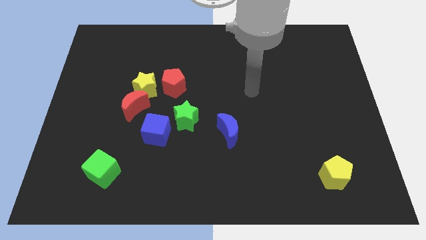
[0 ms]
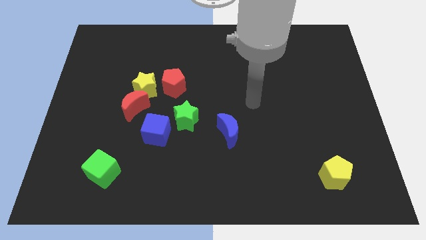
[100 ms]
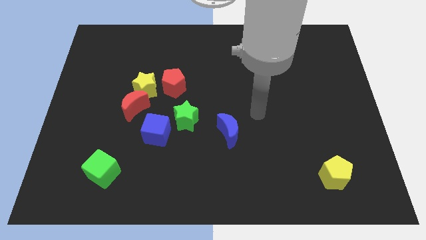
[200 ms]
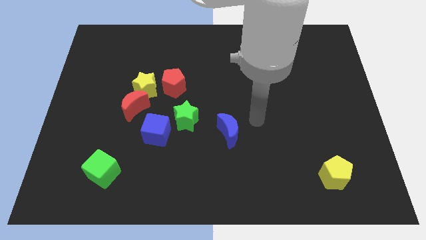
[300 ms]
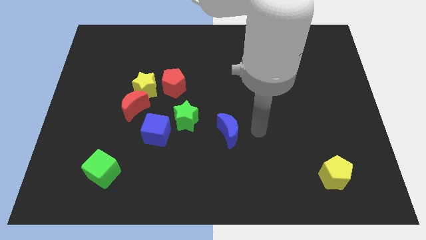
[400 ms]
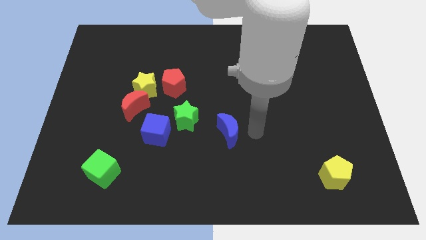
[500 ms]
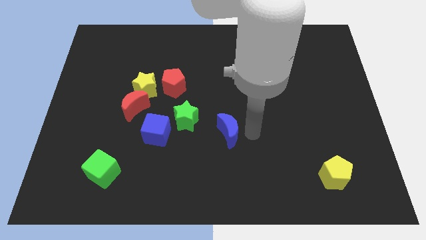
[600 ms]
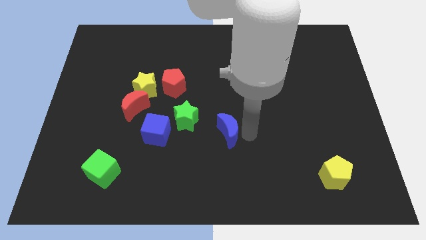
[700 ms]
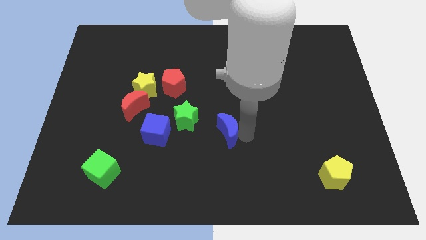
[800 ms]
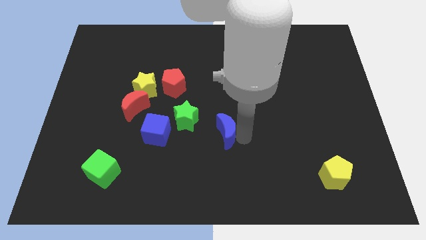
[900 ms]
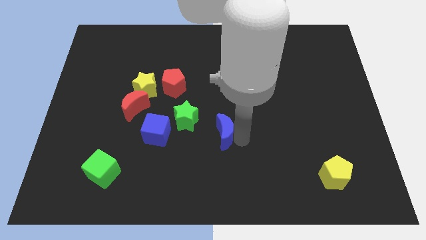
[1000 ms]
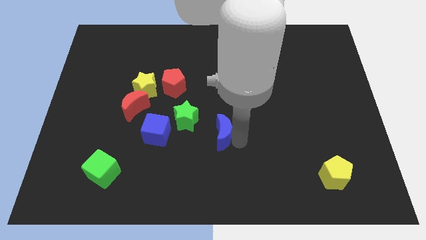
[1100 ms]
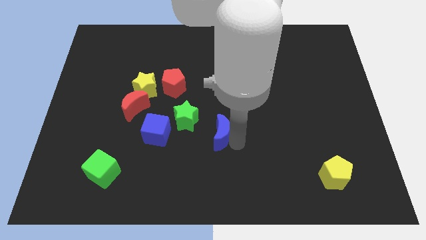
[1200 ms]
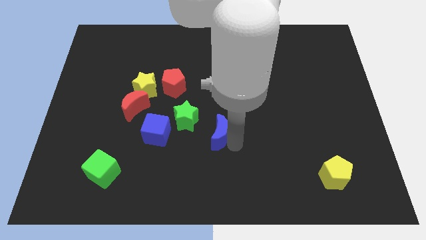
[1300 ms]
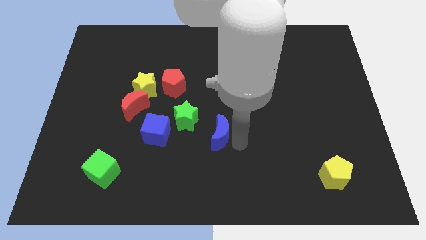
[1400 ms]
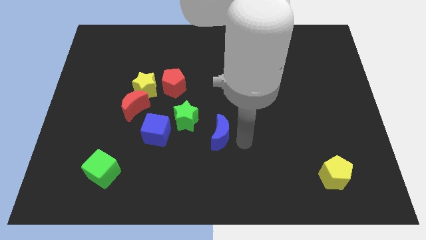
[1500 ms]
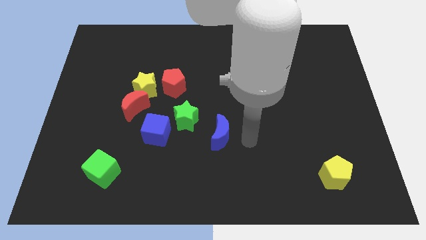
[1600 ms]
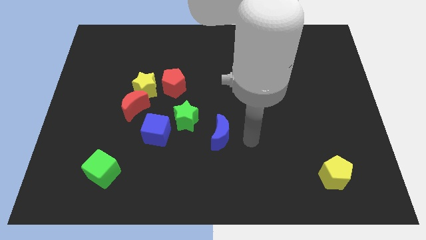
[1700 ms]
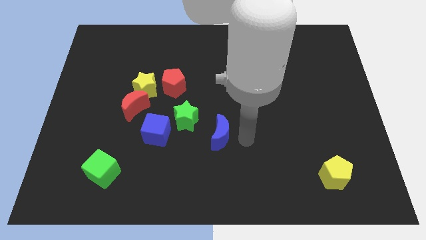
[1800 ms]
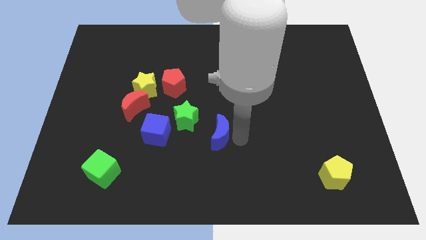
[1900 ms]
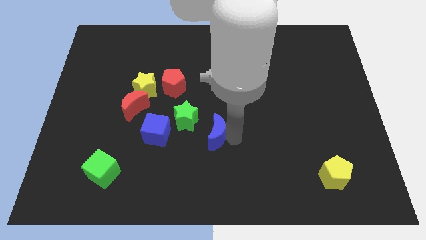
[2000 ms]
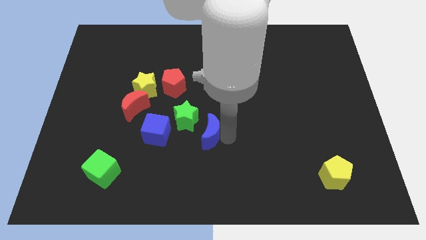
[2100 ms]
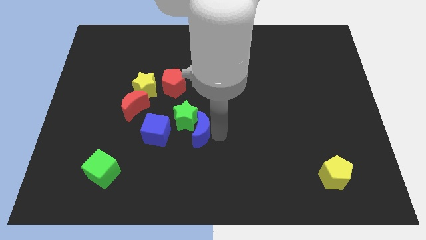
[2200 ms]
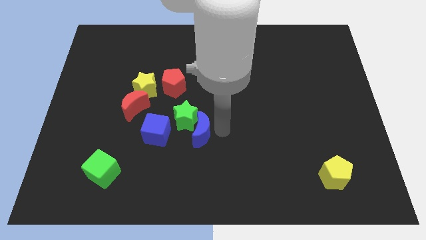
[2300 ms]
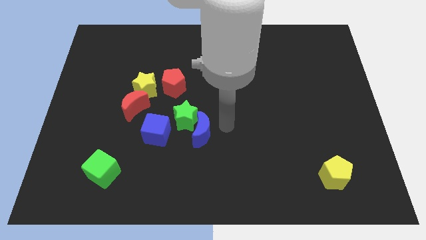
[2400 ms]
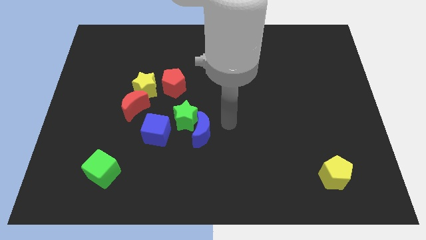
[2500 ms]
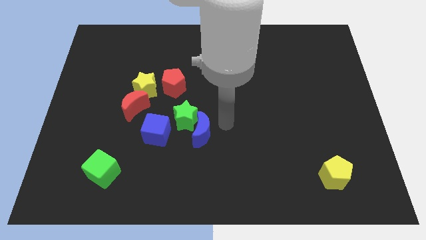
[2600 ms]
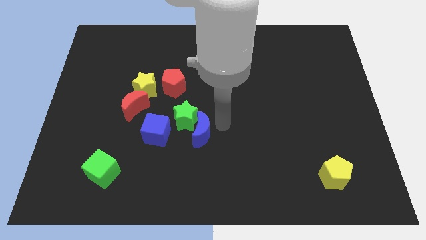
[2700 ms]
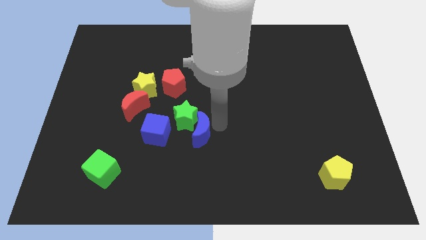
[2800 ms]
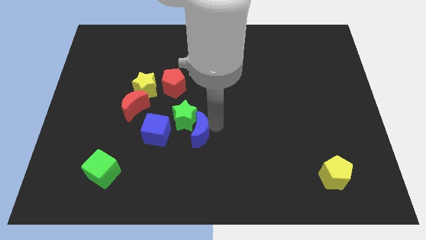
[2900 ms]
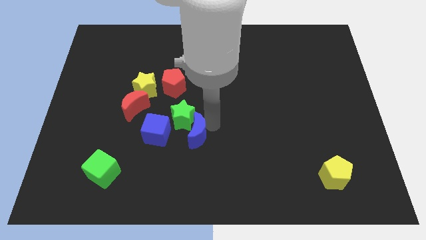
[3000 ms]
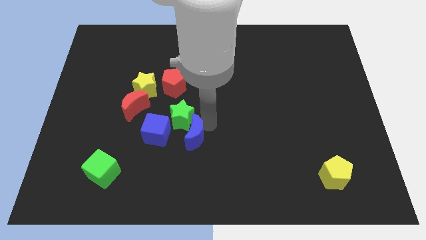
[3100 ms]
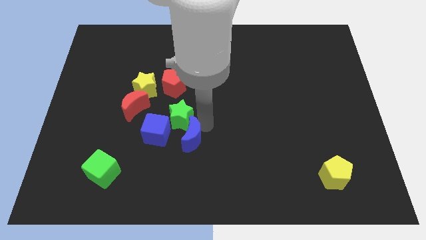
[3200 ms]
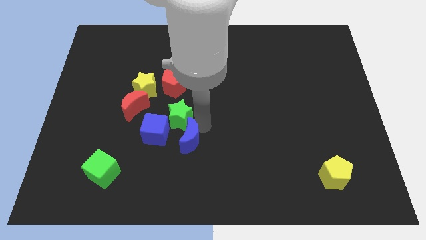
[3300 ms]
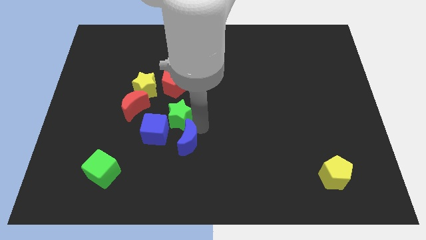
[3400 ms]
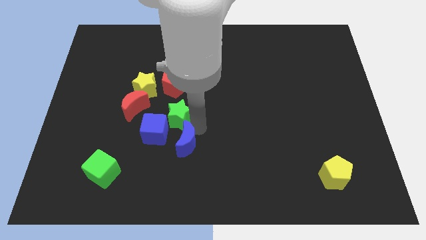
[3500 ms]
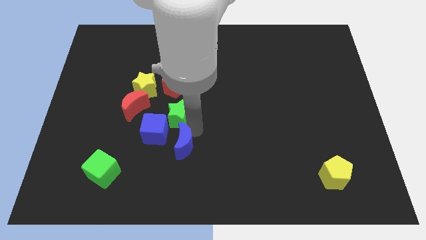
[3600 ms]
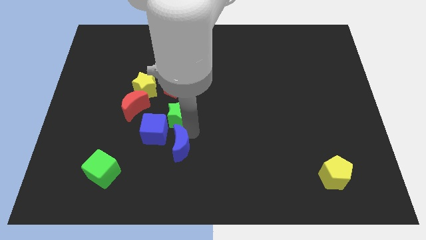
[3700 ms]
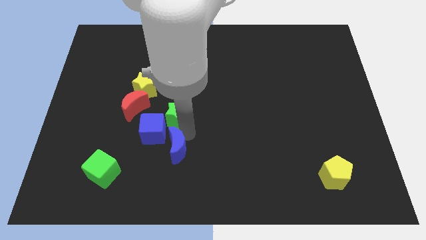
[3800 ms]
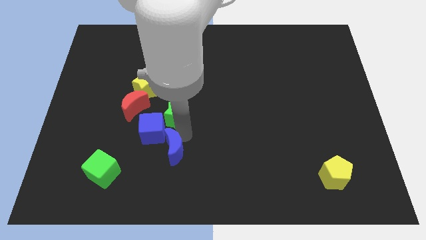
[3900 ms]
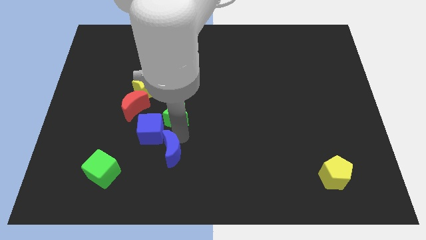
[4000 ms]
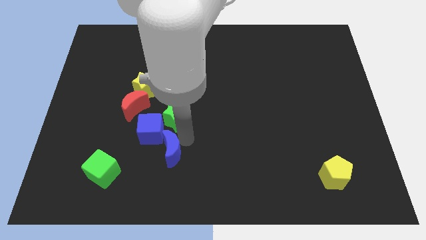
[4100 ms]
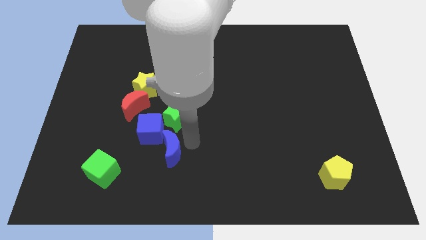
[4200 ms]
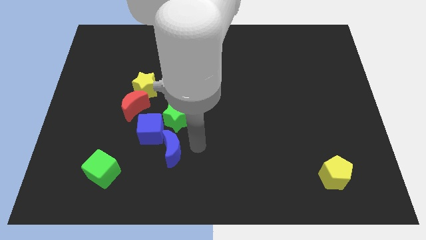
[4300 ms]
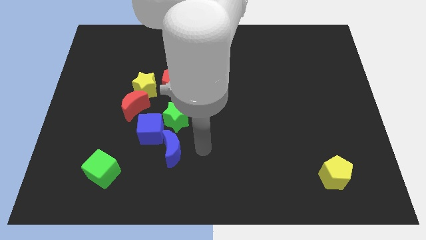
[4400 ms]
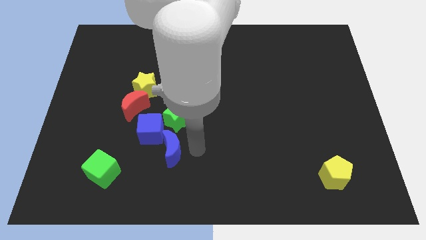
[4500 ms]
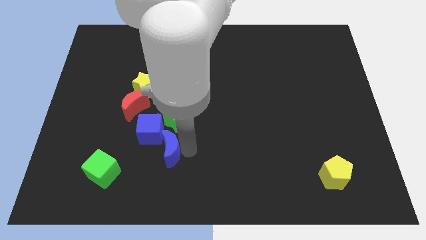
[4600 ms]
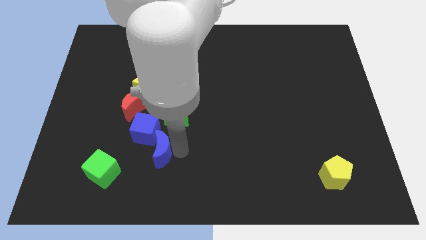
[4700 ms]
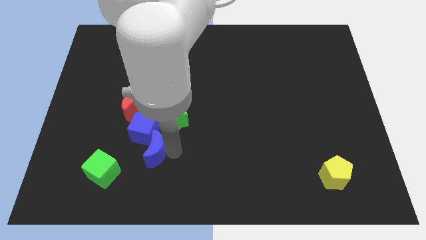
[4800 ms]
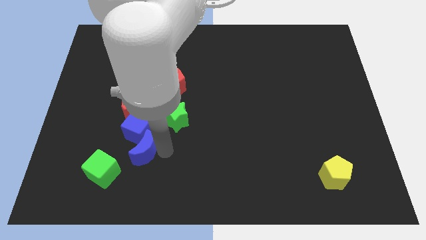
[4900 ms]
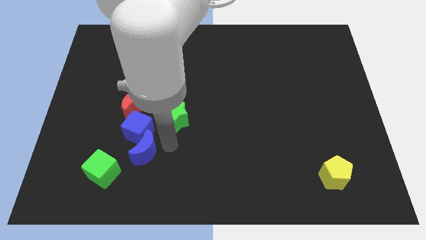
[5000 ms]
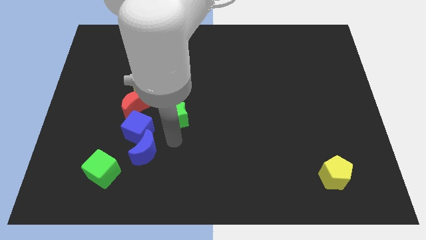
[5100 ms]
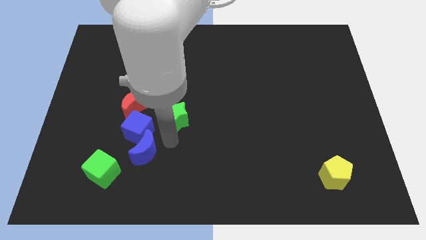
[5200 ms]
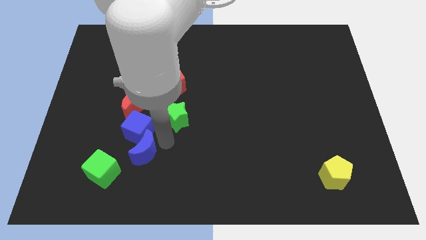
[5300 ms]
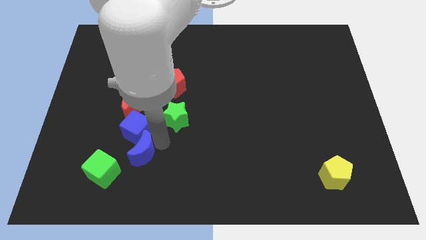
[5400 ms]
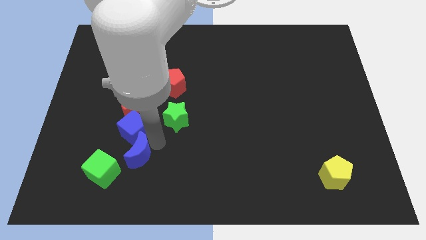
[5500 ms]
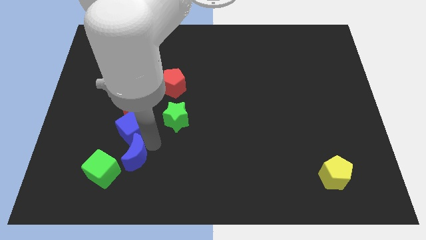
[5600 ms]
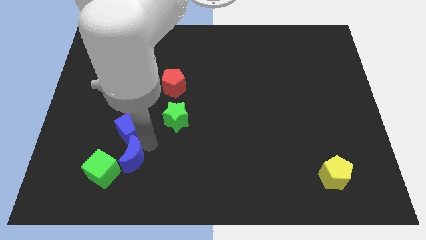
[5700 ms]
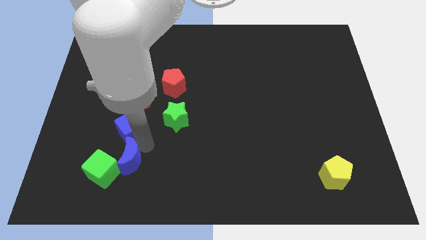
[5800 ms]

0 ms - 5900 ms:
slide the blue moon next to the green cube

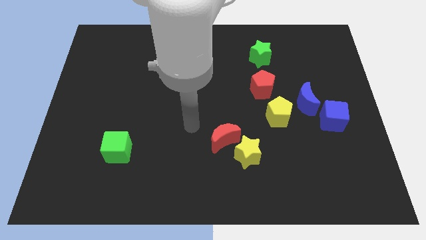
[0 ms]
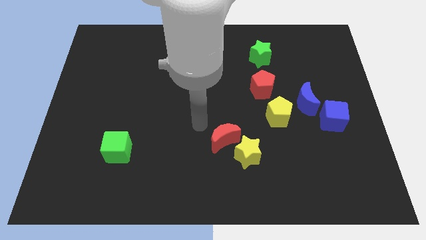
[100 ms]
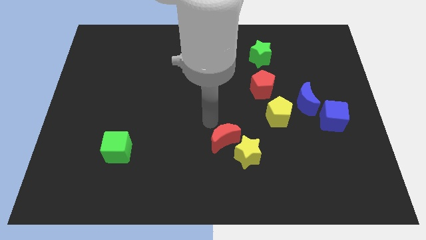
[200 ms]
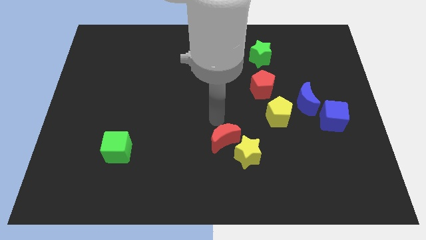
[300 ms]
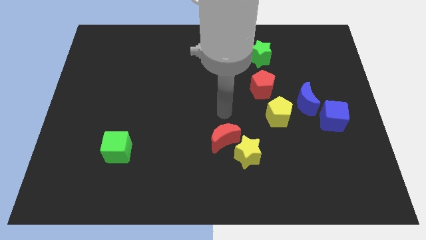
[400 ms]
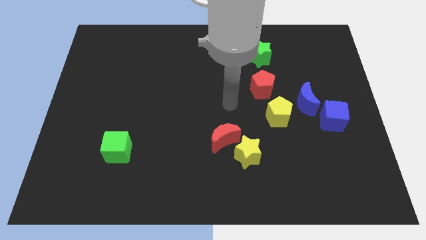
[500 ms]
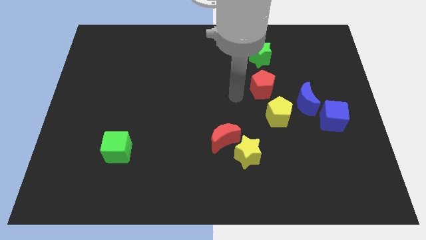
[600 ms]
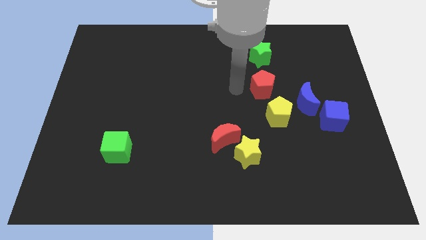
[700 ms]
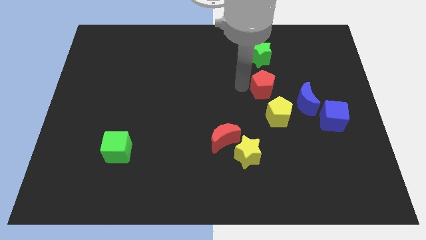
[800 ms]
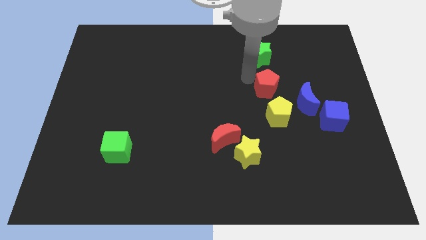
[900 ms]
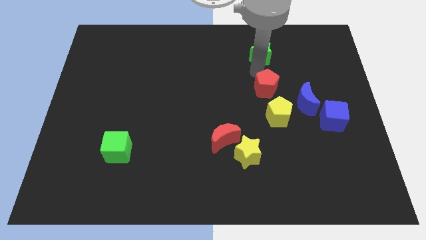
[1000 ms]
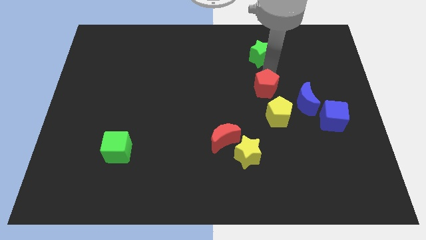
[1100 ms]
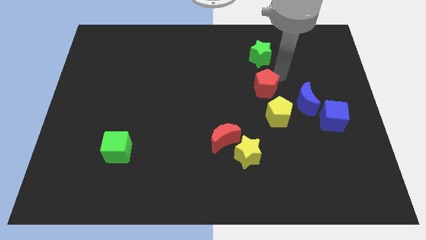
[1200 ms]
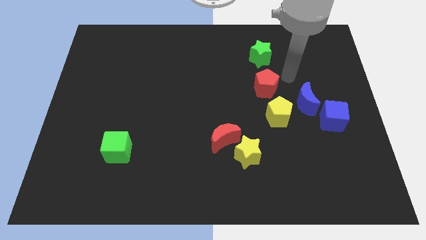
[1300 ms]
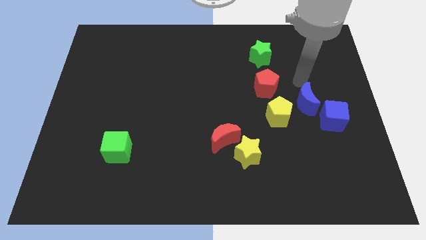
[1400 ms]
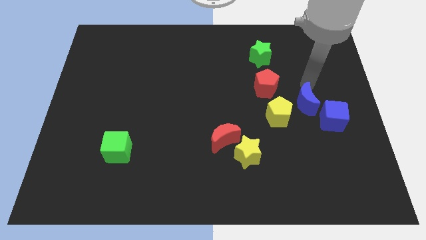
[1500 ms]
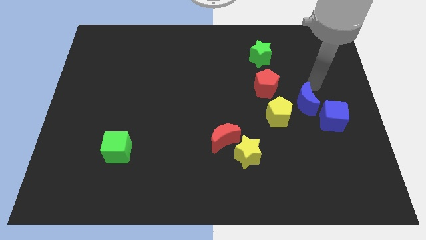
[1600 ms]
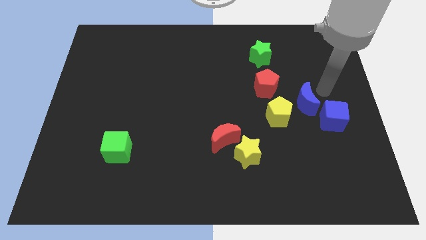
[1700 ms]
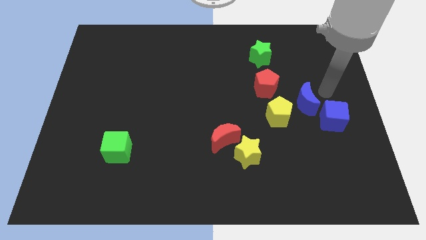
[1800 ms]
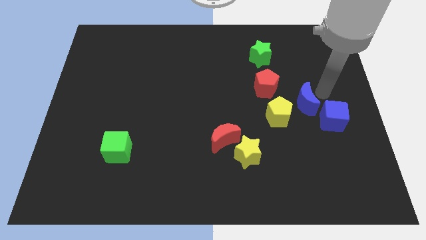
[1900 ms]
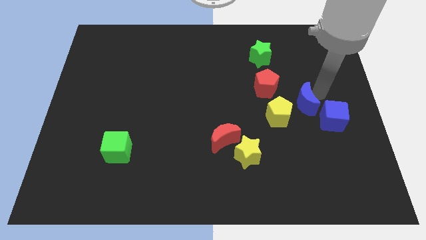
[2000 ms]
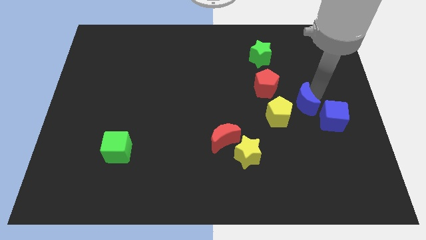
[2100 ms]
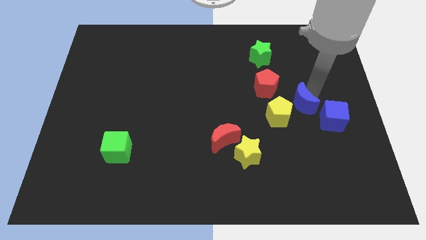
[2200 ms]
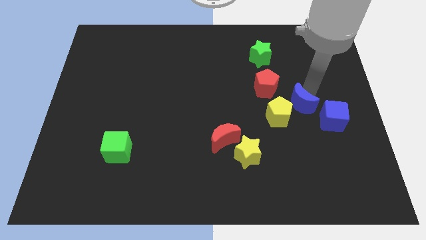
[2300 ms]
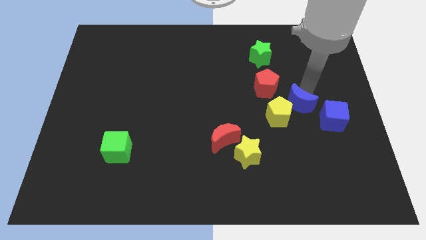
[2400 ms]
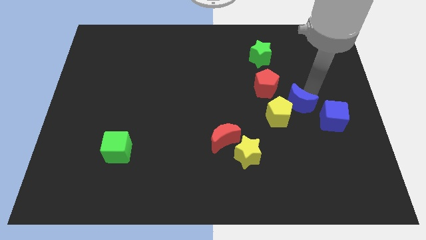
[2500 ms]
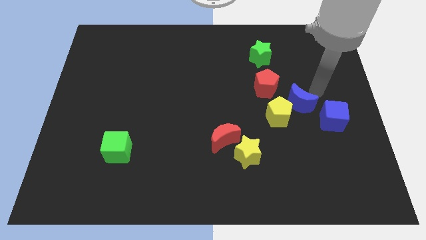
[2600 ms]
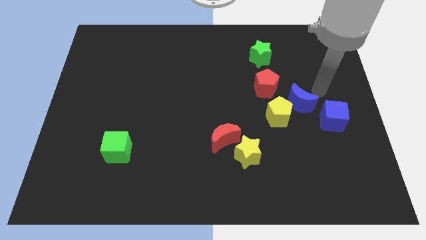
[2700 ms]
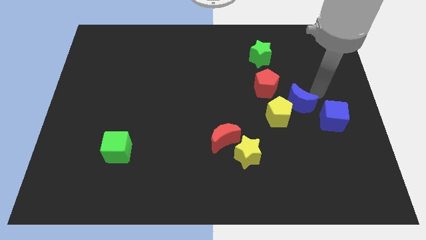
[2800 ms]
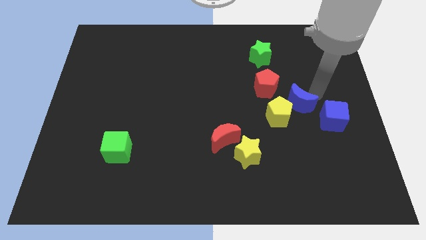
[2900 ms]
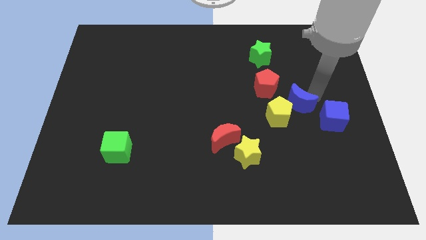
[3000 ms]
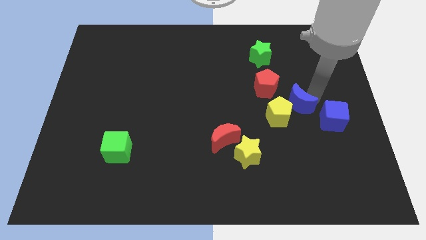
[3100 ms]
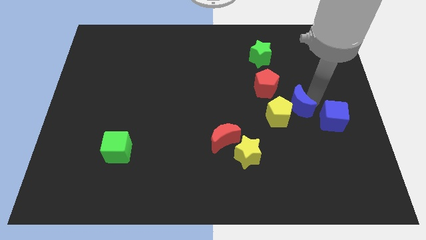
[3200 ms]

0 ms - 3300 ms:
put the blue moon towards the yellow pentagon
